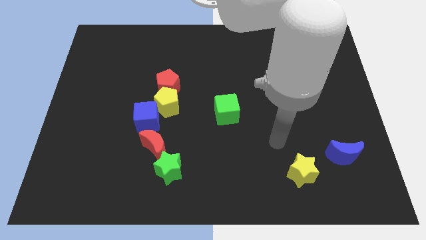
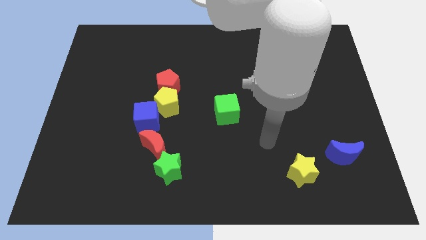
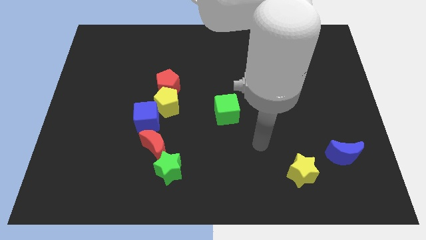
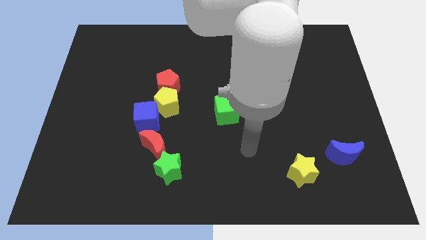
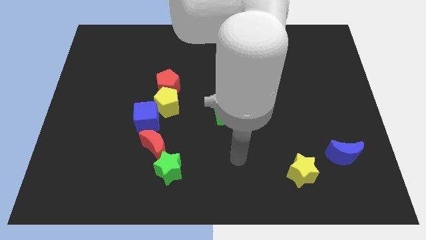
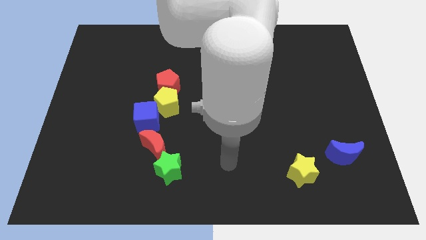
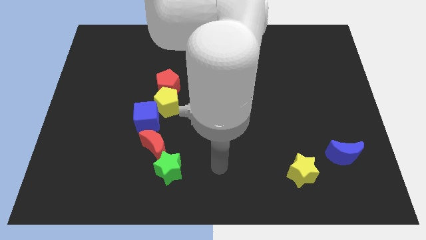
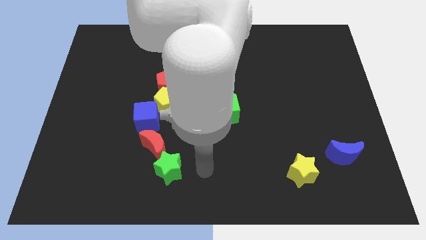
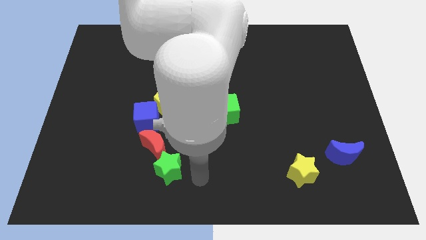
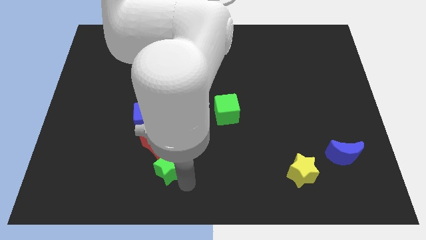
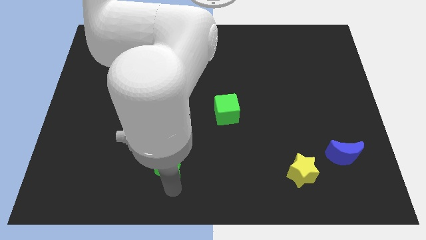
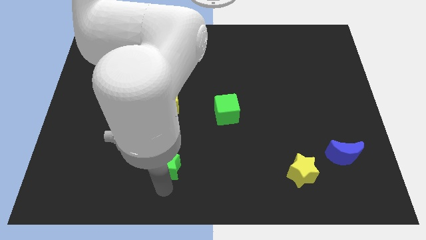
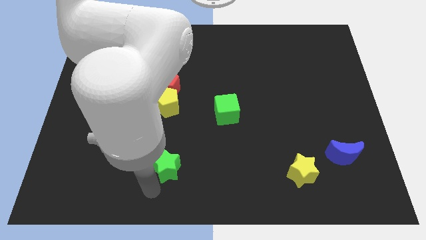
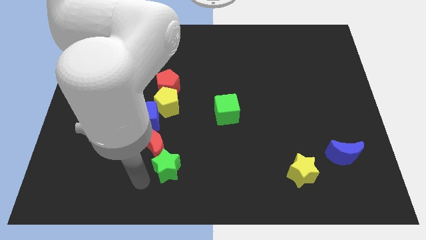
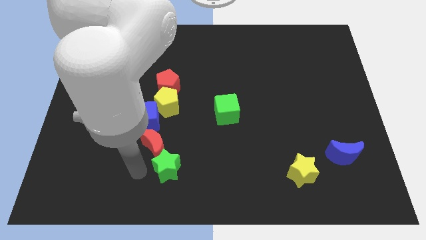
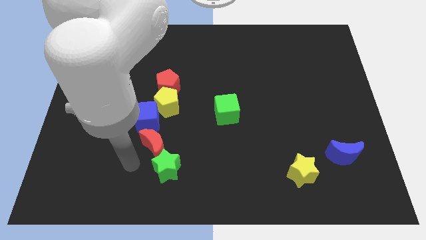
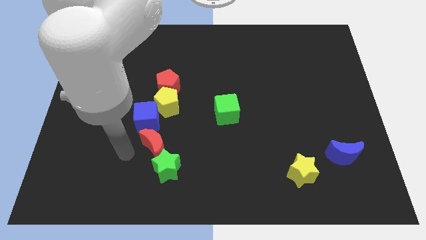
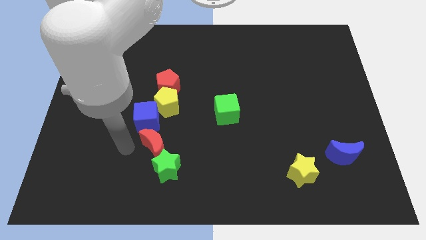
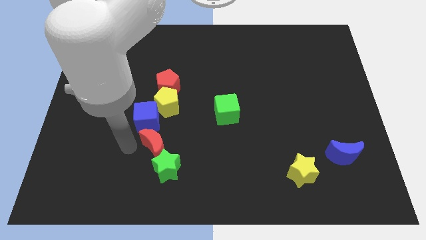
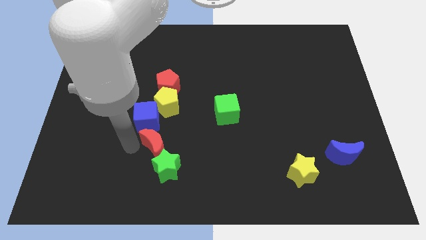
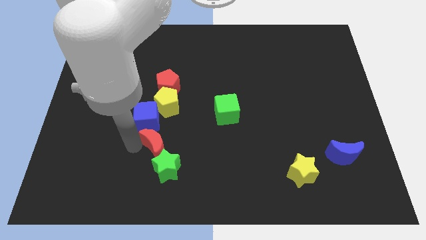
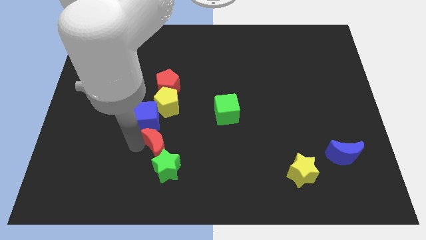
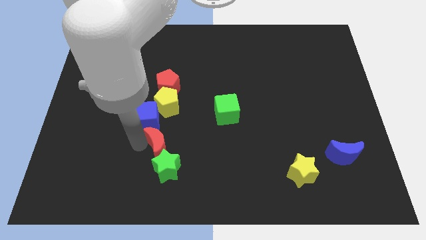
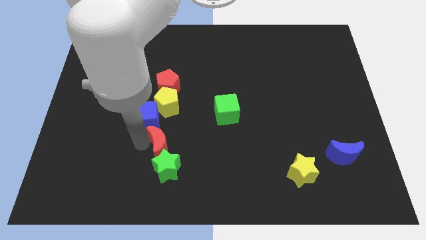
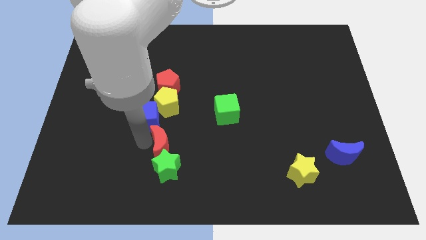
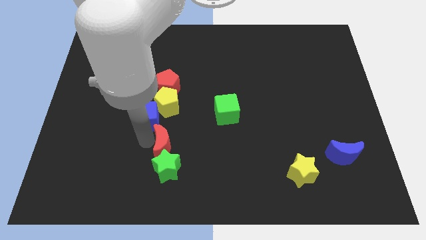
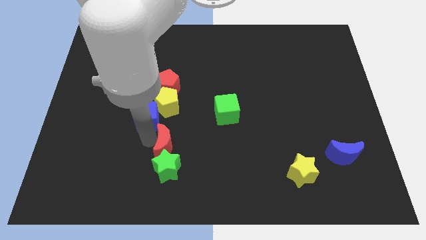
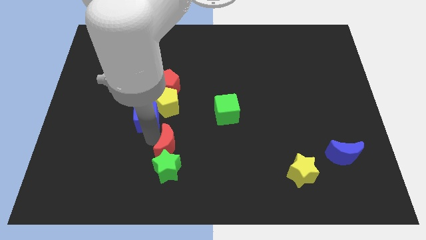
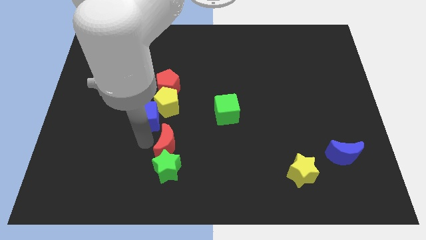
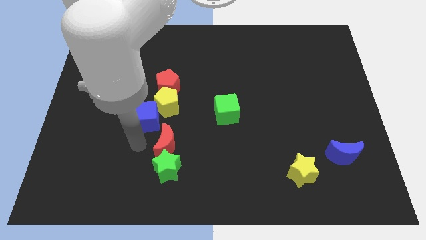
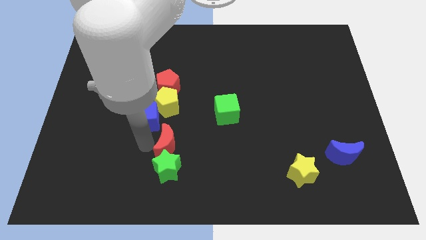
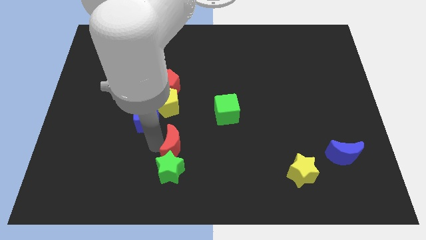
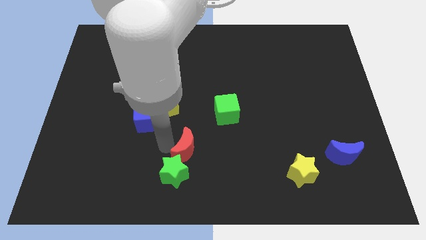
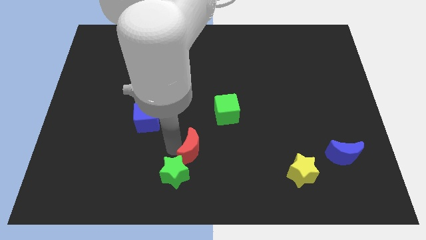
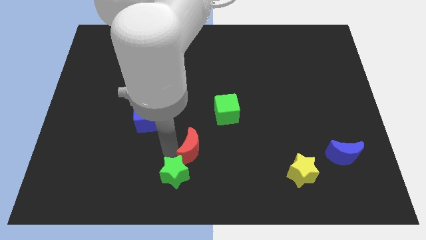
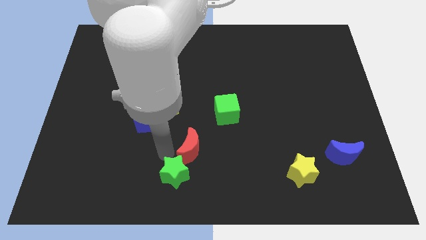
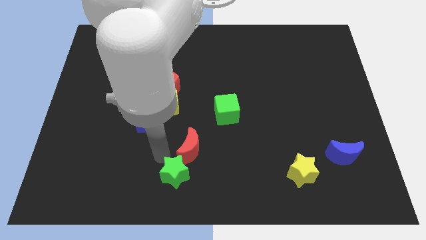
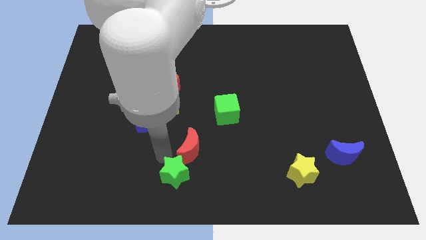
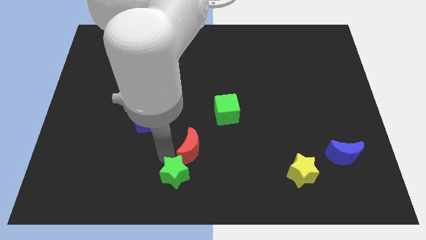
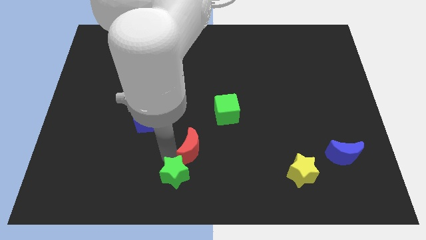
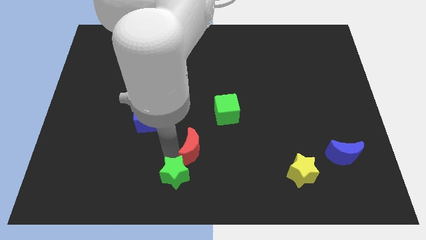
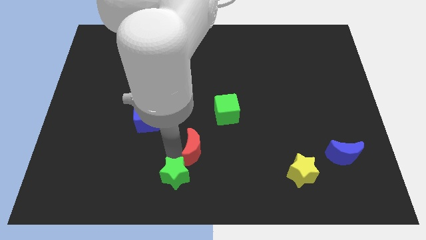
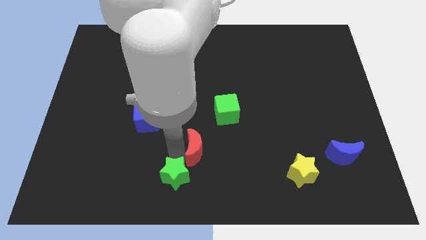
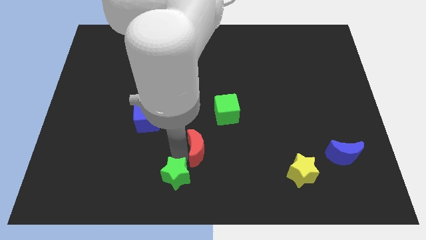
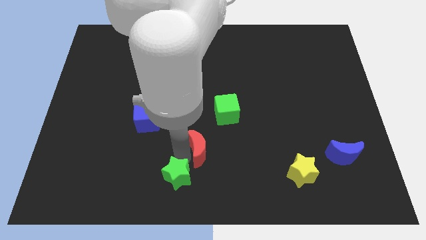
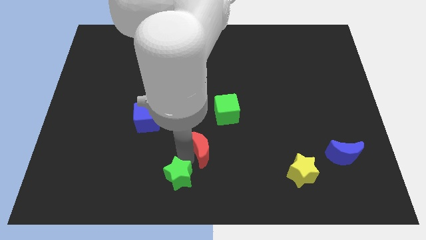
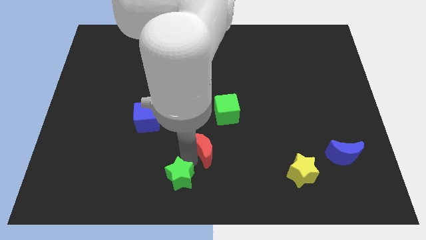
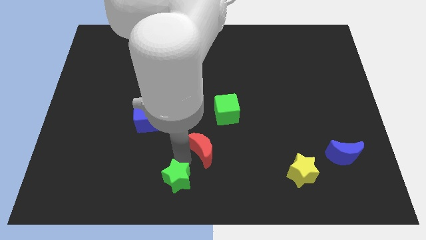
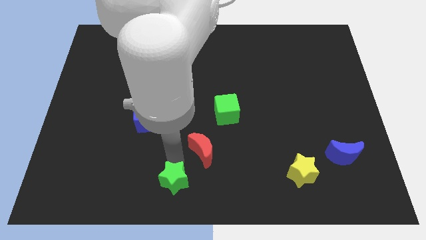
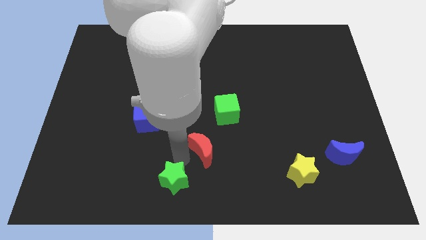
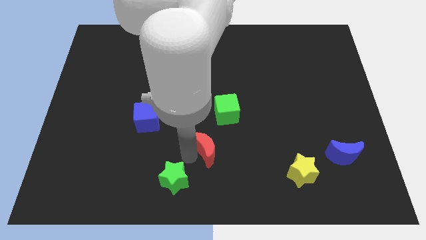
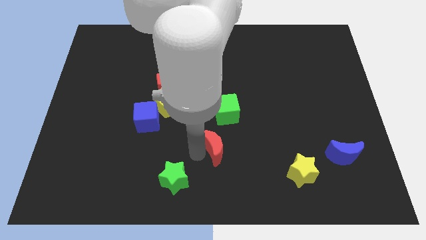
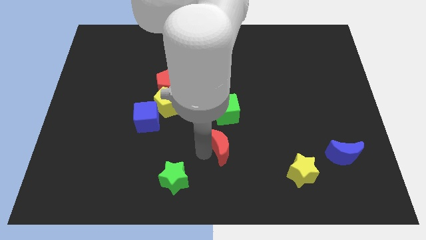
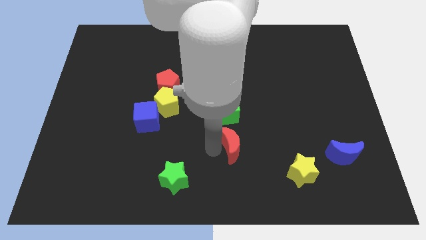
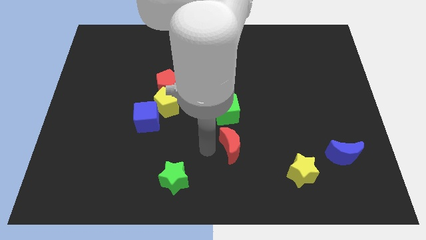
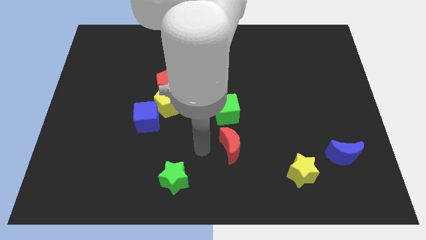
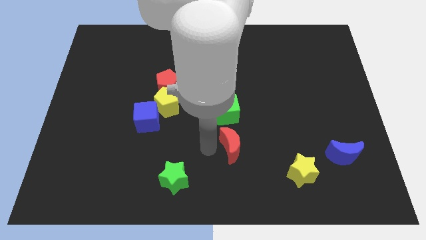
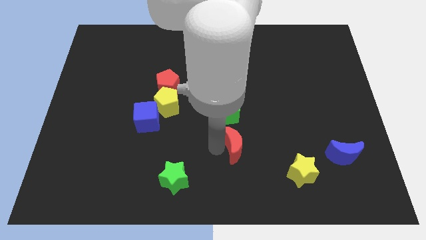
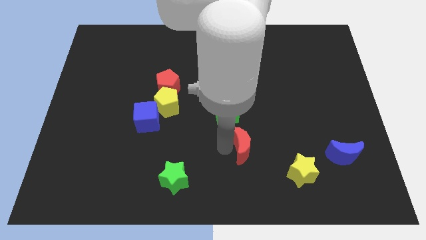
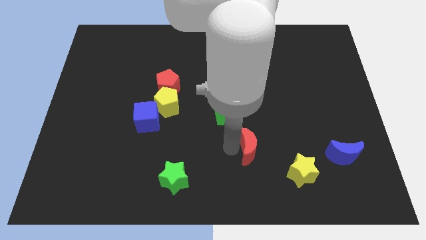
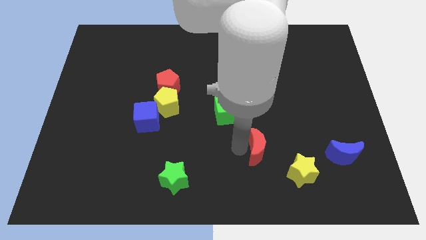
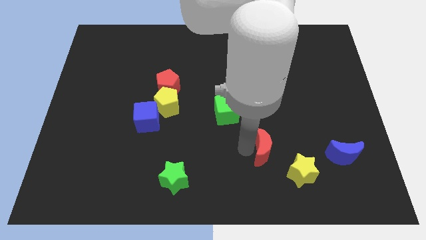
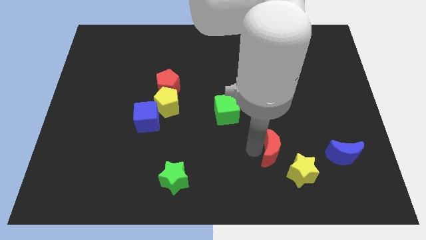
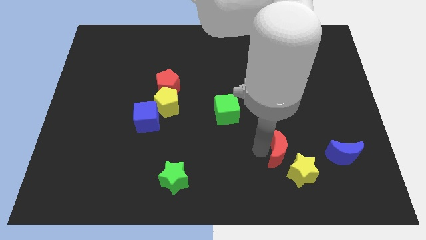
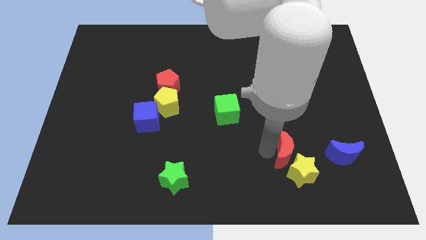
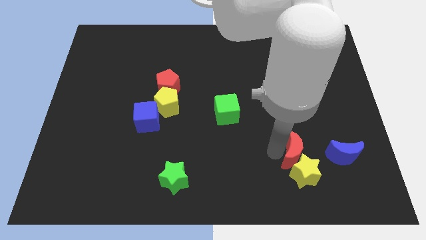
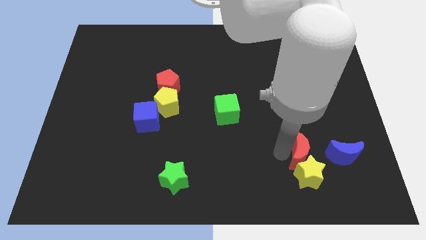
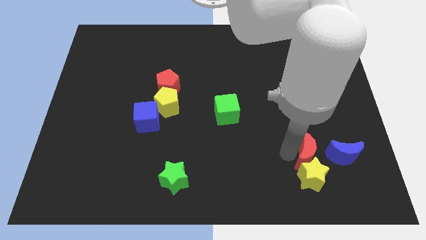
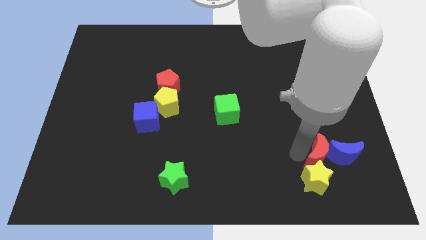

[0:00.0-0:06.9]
push the red moon towards the blue moon
